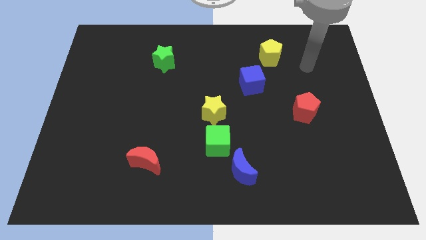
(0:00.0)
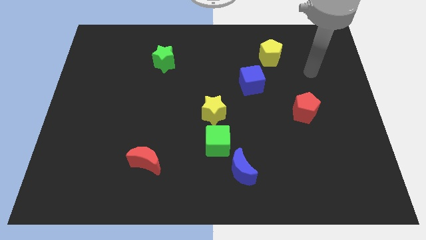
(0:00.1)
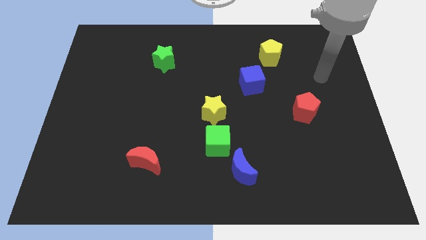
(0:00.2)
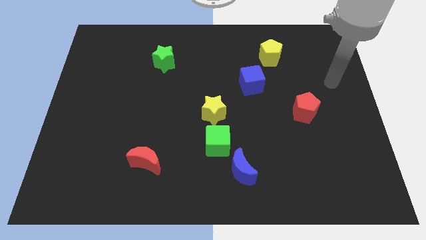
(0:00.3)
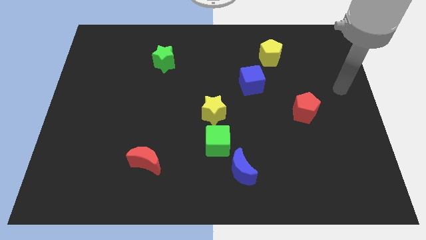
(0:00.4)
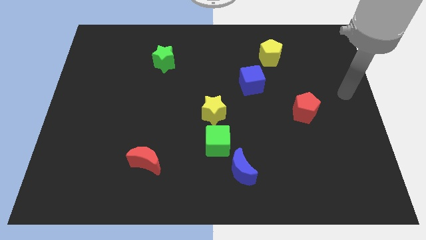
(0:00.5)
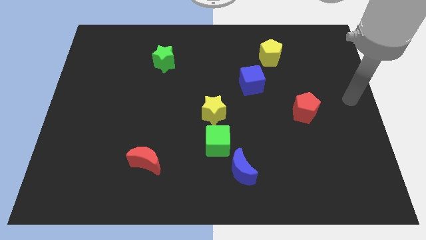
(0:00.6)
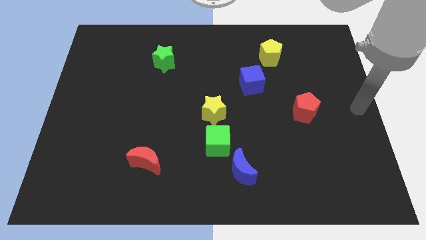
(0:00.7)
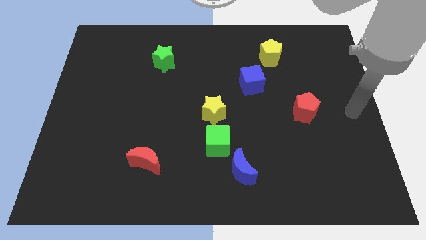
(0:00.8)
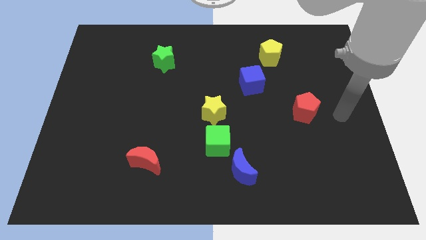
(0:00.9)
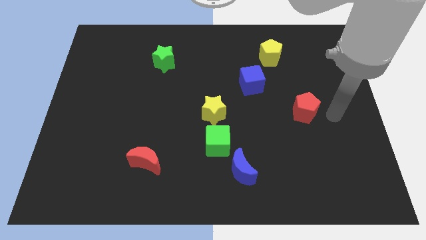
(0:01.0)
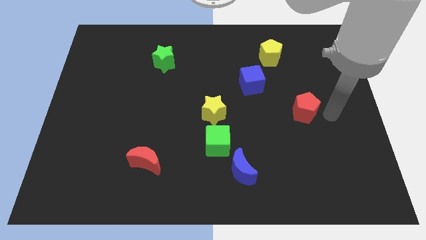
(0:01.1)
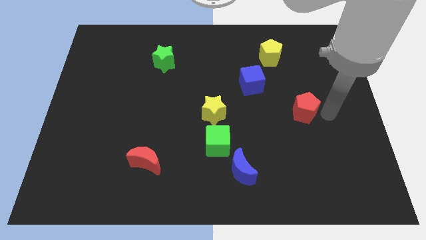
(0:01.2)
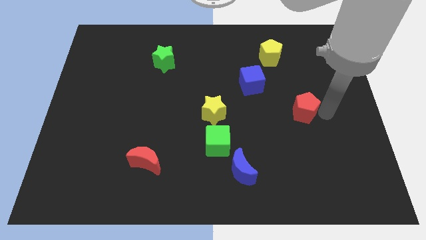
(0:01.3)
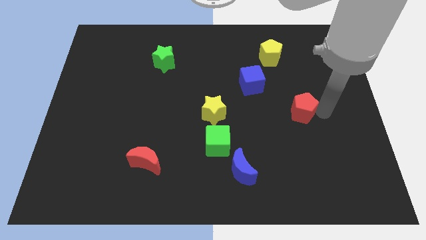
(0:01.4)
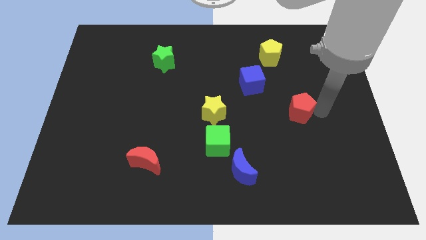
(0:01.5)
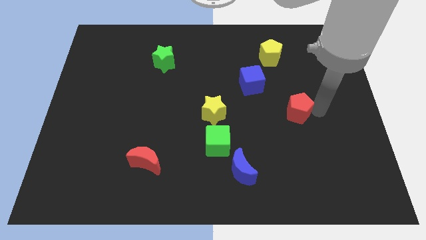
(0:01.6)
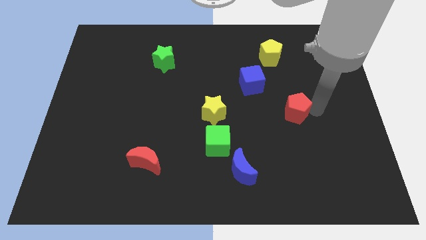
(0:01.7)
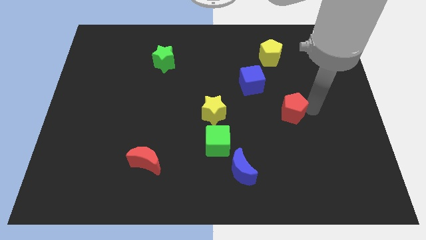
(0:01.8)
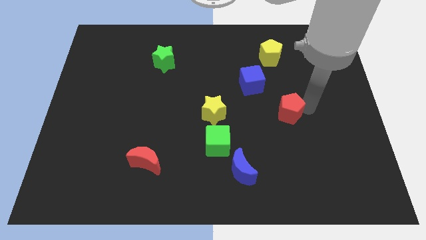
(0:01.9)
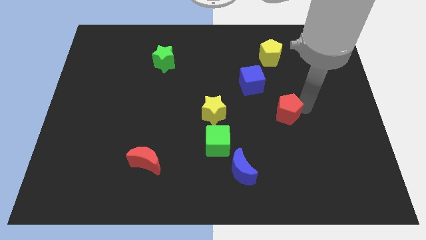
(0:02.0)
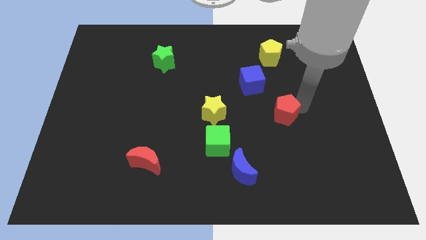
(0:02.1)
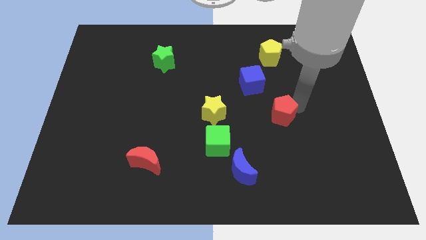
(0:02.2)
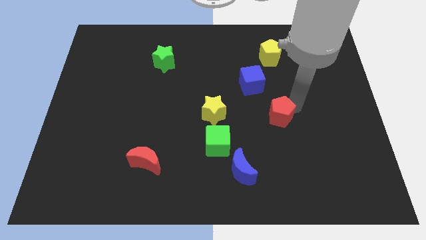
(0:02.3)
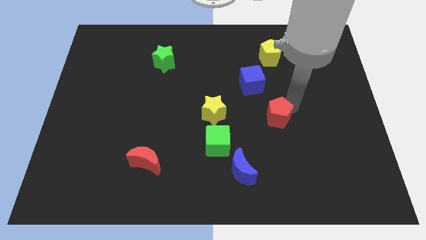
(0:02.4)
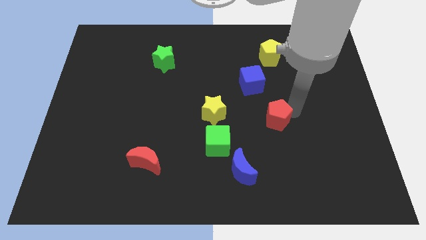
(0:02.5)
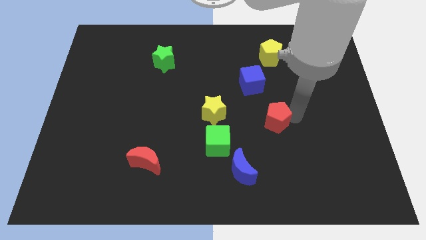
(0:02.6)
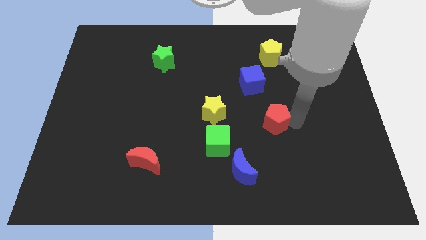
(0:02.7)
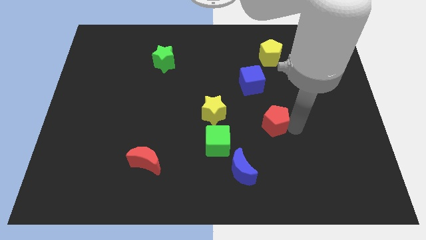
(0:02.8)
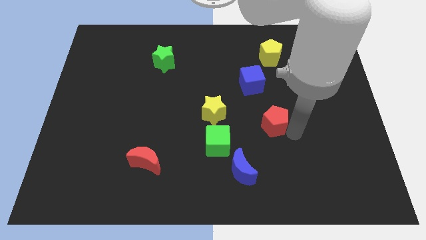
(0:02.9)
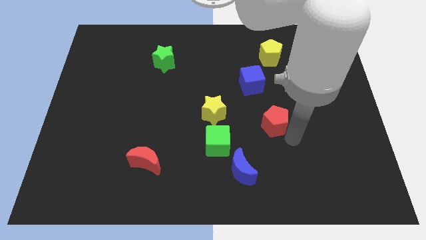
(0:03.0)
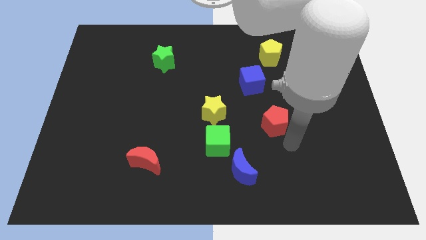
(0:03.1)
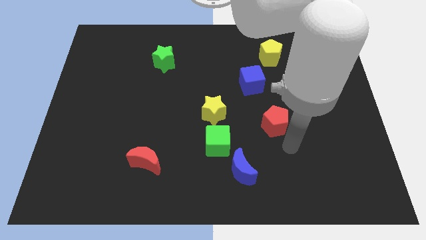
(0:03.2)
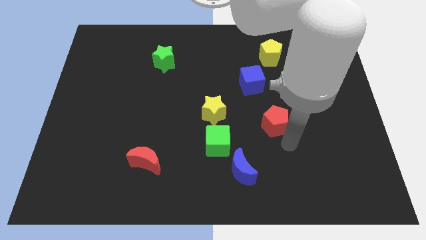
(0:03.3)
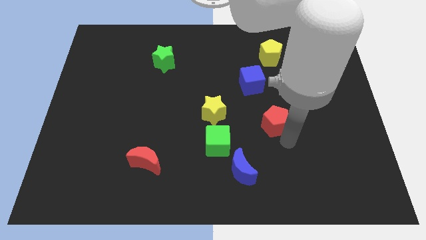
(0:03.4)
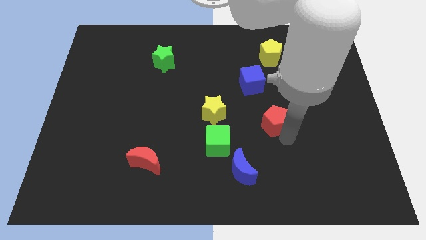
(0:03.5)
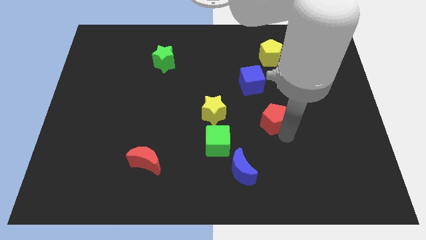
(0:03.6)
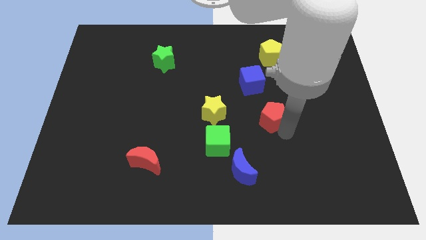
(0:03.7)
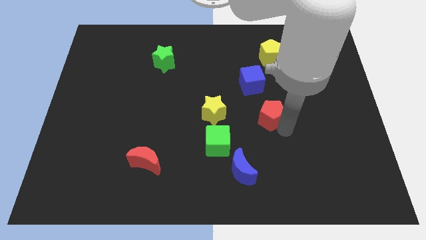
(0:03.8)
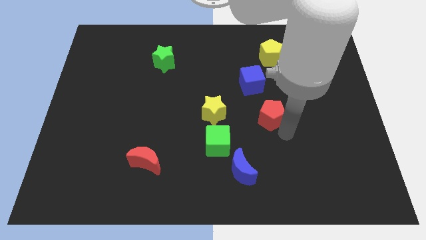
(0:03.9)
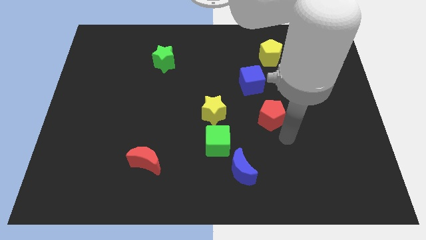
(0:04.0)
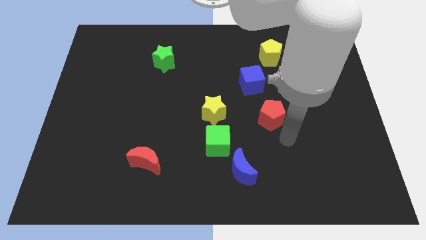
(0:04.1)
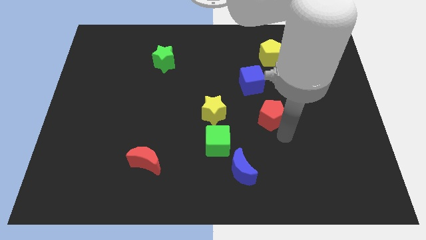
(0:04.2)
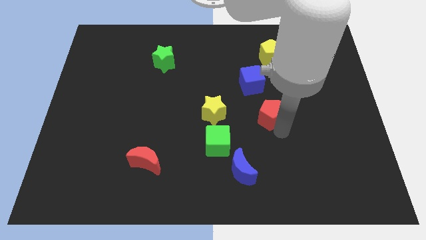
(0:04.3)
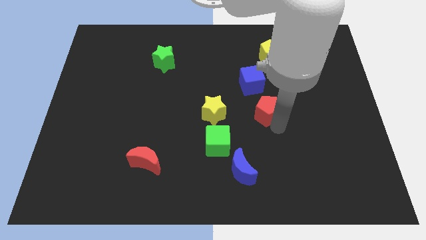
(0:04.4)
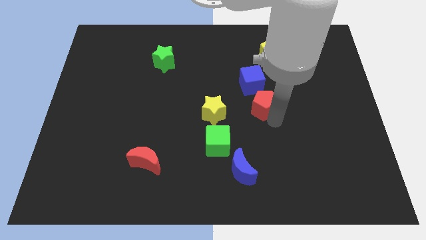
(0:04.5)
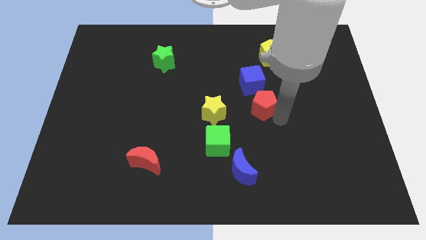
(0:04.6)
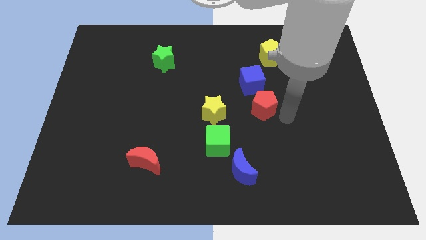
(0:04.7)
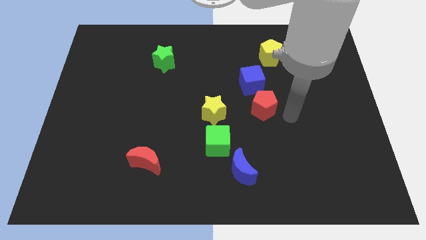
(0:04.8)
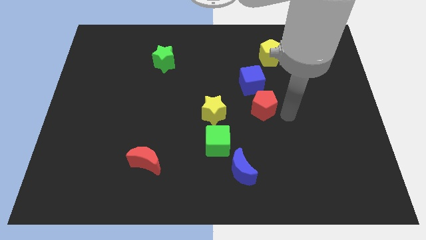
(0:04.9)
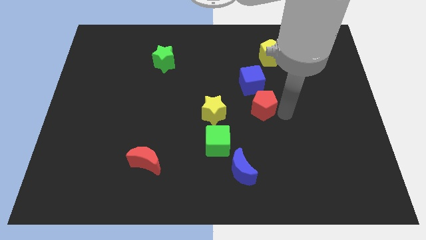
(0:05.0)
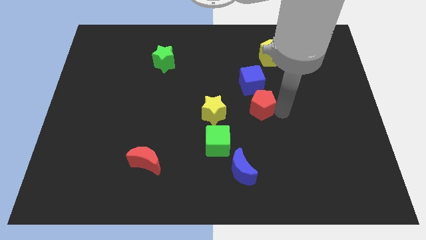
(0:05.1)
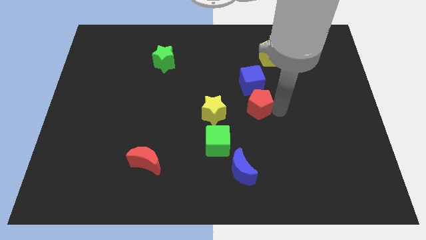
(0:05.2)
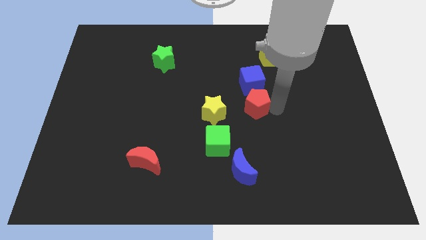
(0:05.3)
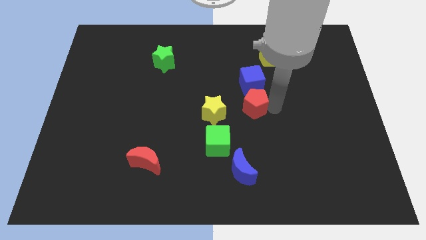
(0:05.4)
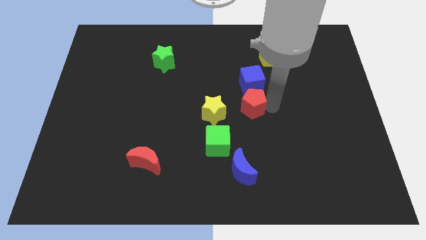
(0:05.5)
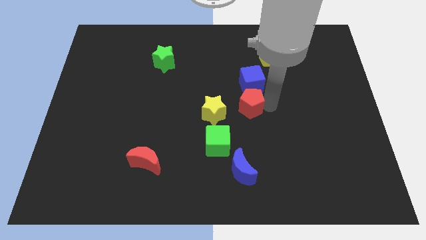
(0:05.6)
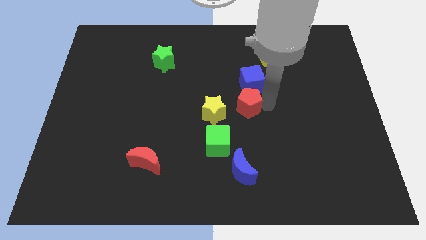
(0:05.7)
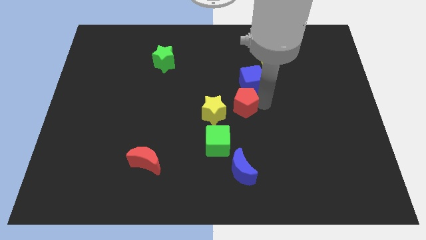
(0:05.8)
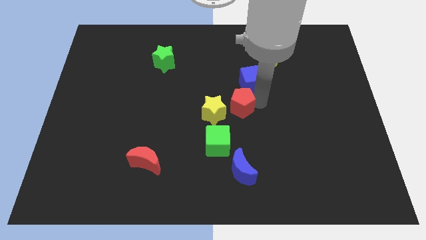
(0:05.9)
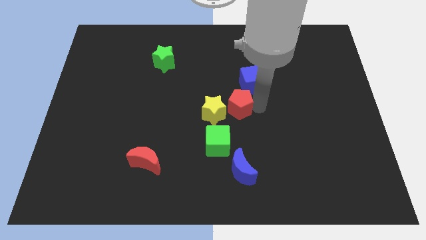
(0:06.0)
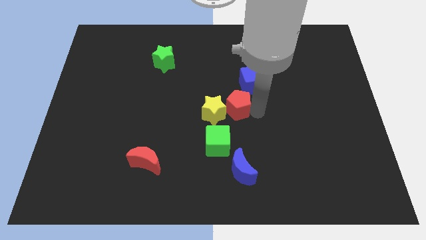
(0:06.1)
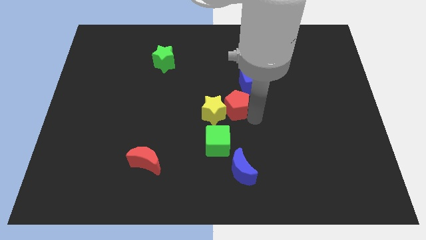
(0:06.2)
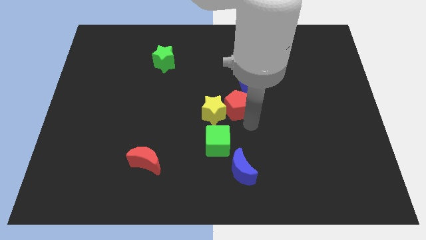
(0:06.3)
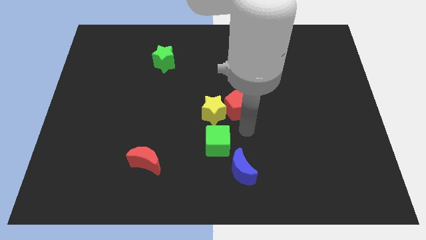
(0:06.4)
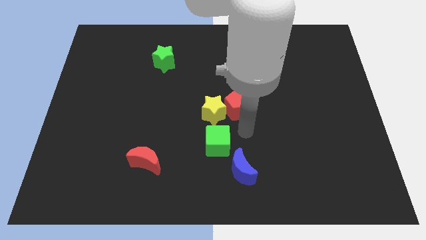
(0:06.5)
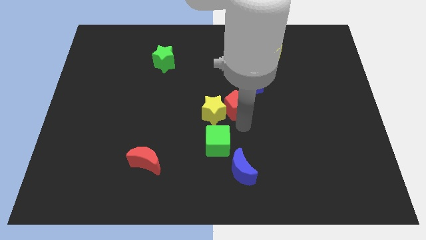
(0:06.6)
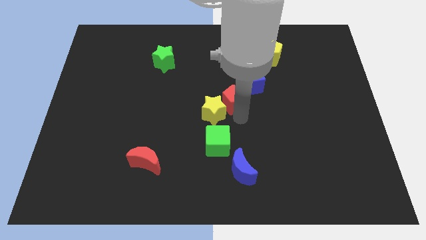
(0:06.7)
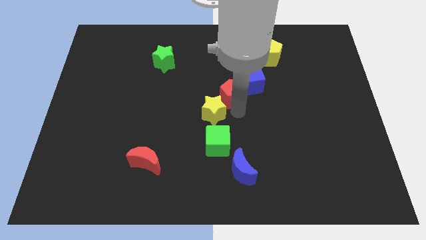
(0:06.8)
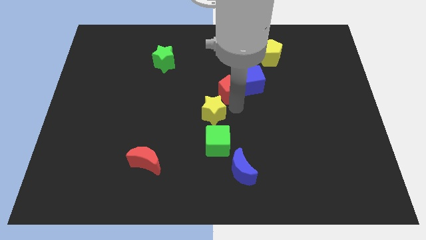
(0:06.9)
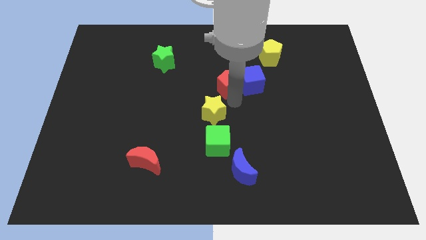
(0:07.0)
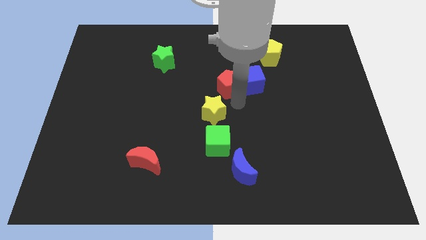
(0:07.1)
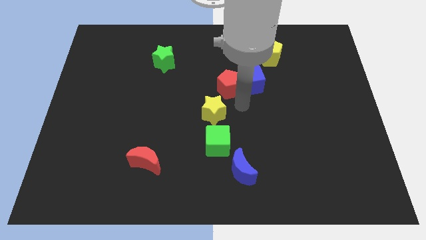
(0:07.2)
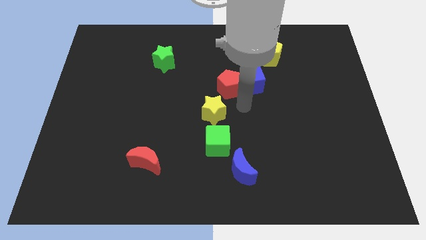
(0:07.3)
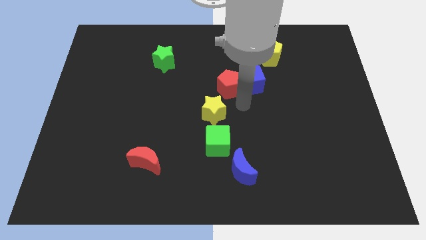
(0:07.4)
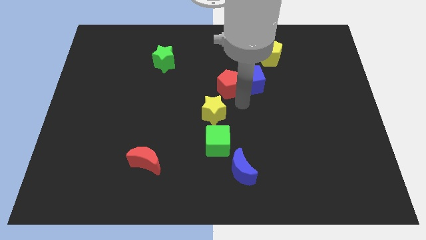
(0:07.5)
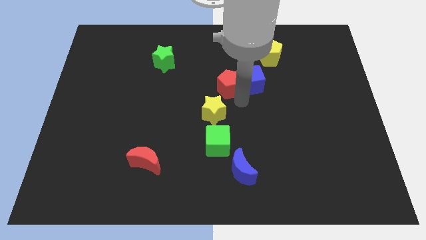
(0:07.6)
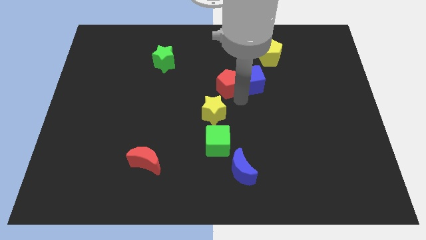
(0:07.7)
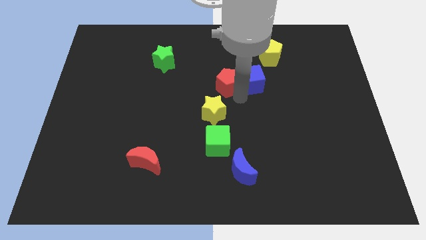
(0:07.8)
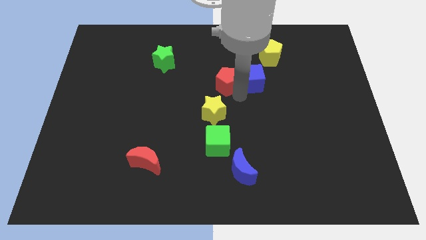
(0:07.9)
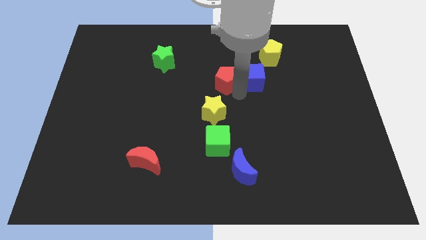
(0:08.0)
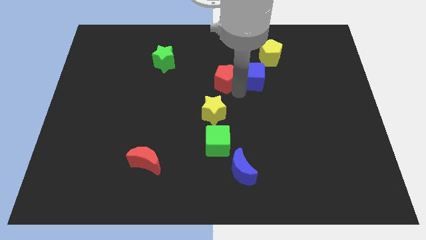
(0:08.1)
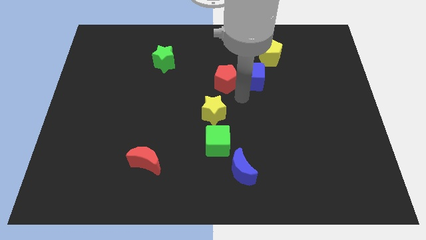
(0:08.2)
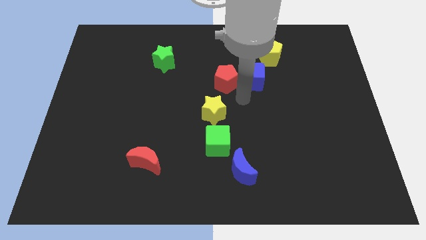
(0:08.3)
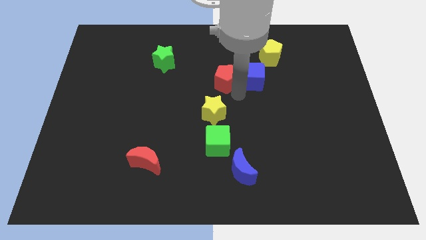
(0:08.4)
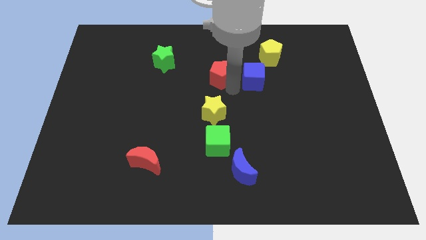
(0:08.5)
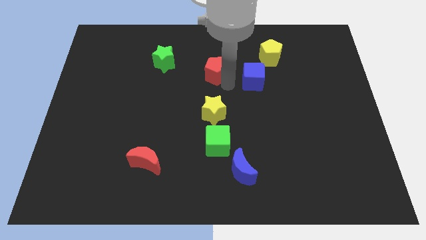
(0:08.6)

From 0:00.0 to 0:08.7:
slide the red pentagon just right of the green star
